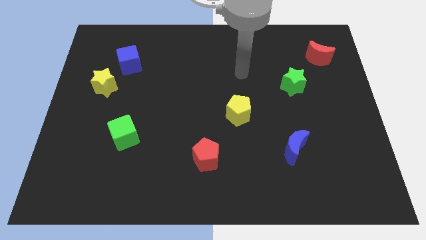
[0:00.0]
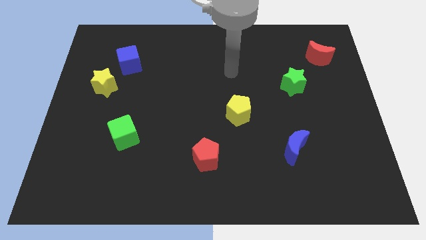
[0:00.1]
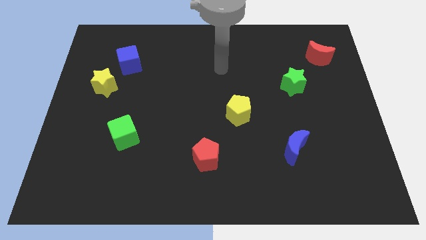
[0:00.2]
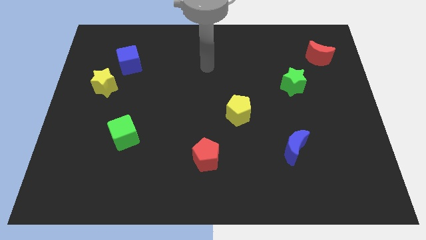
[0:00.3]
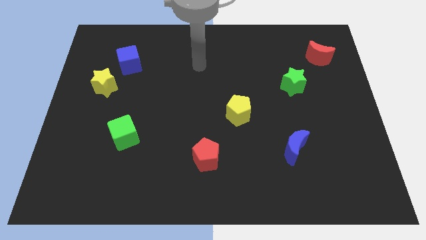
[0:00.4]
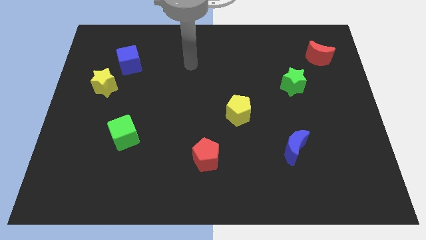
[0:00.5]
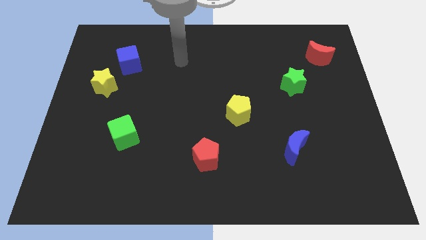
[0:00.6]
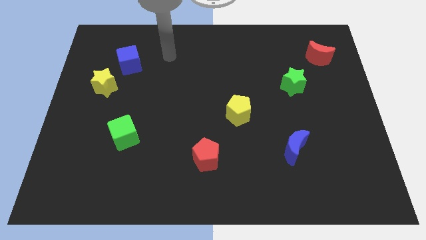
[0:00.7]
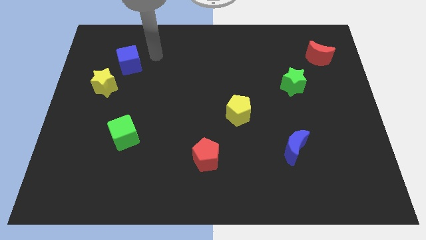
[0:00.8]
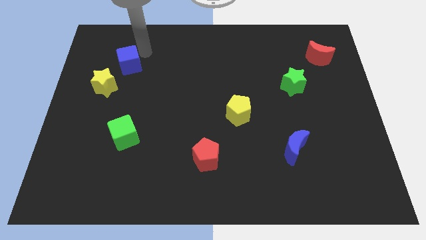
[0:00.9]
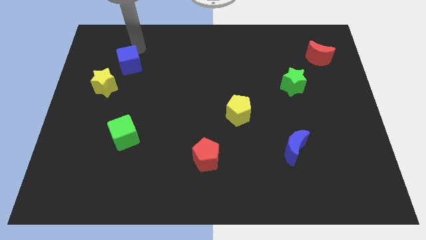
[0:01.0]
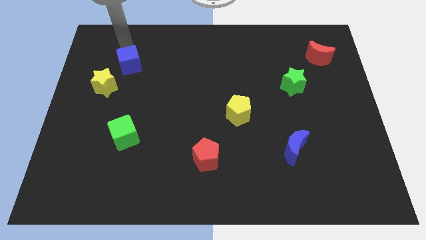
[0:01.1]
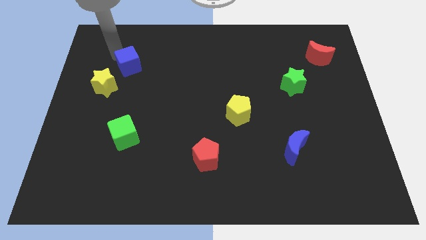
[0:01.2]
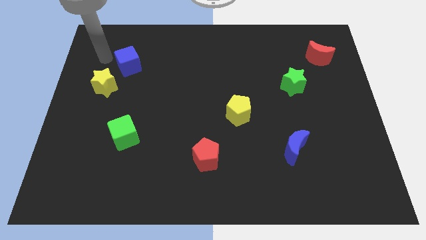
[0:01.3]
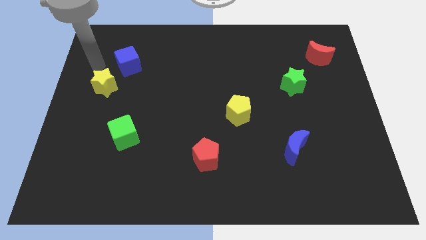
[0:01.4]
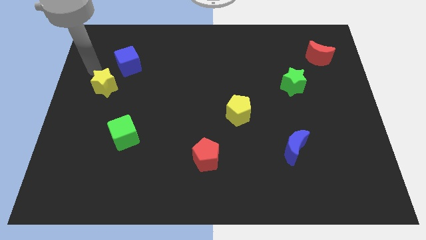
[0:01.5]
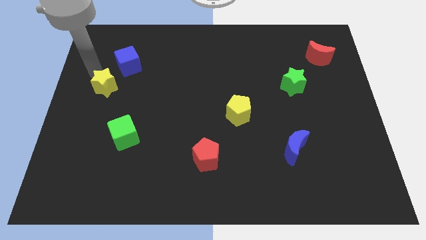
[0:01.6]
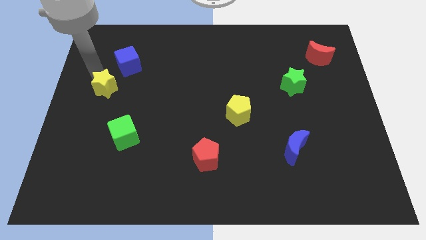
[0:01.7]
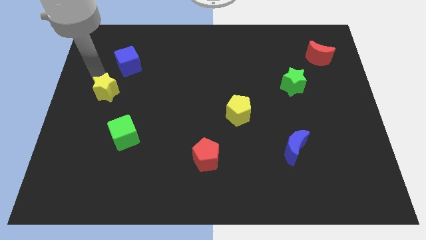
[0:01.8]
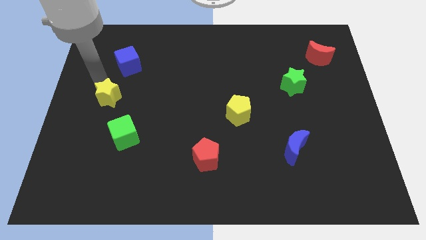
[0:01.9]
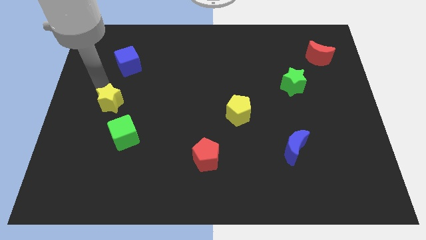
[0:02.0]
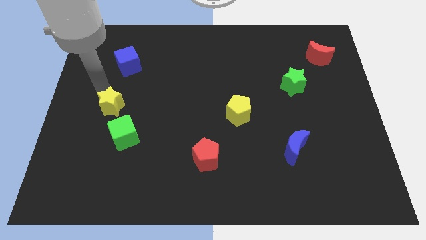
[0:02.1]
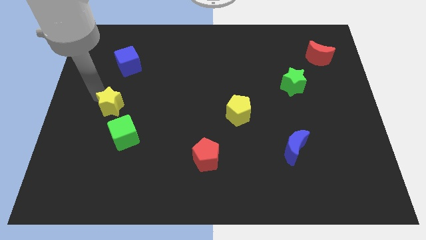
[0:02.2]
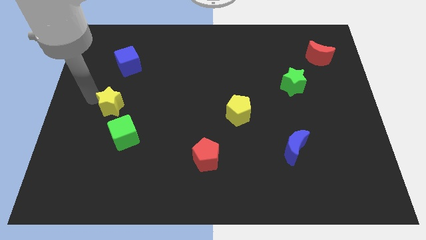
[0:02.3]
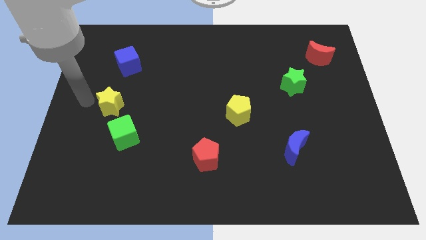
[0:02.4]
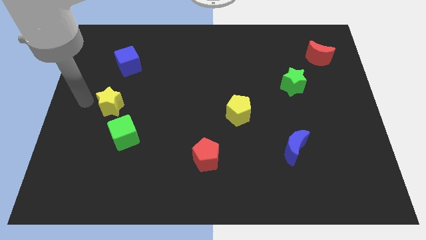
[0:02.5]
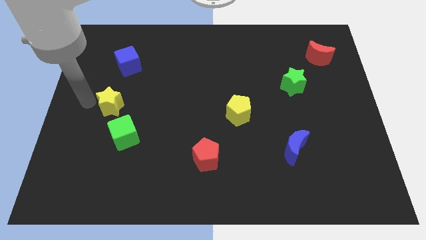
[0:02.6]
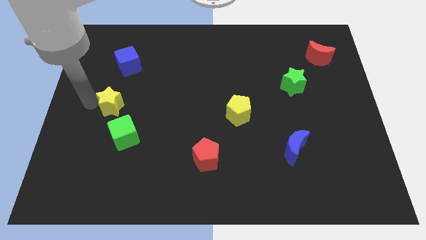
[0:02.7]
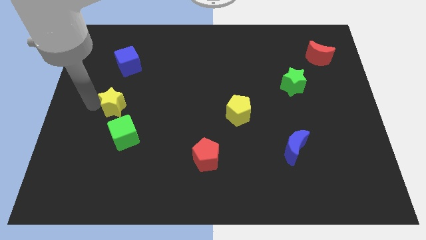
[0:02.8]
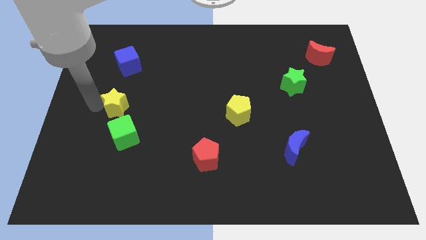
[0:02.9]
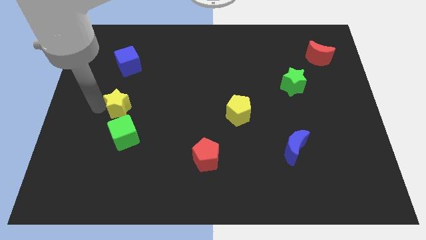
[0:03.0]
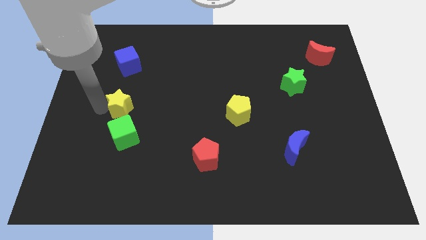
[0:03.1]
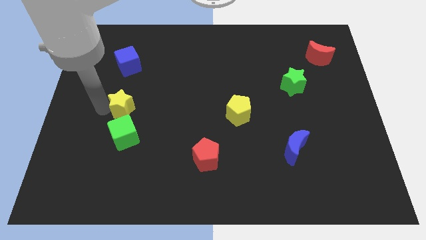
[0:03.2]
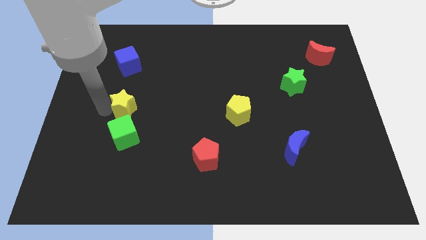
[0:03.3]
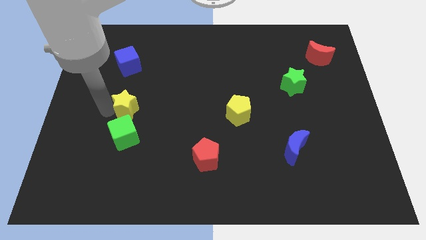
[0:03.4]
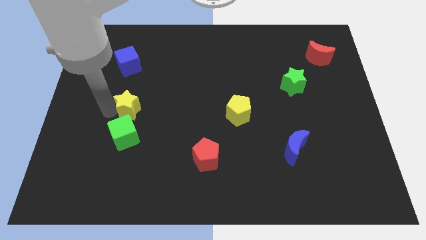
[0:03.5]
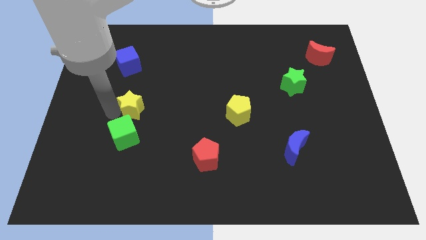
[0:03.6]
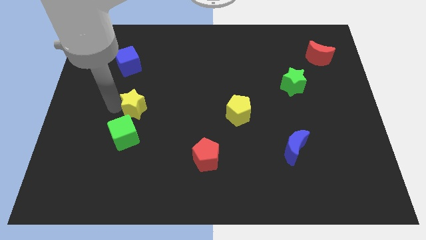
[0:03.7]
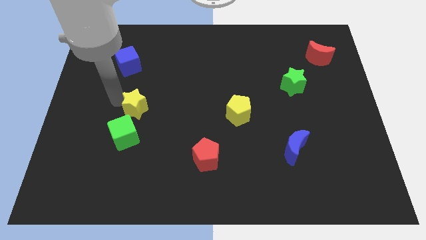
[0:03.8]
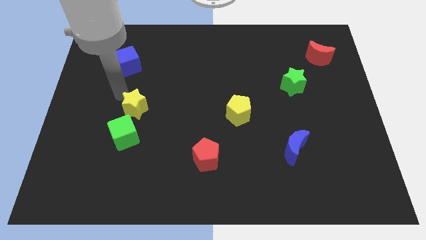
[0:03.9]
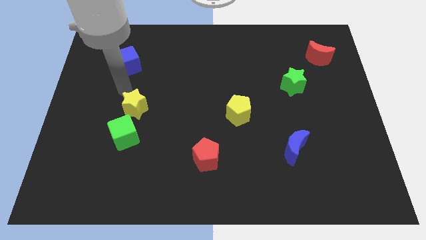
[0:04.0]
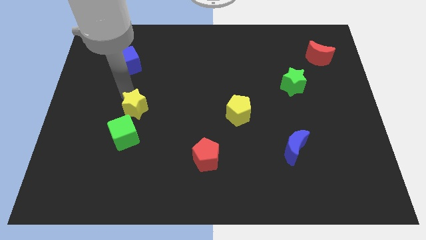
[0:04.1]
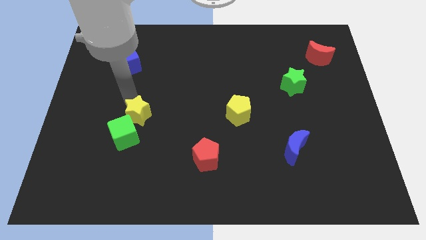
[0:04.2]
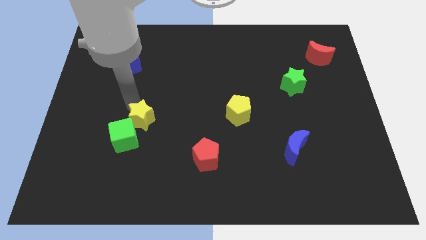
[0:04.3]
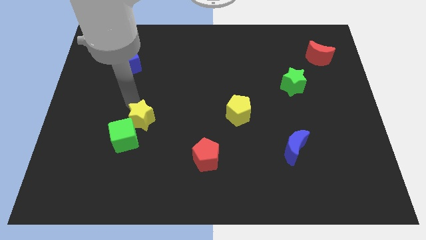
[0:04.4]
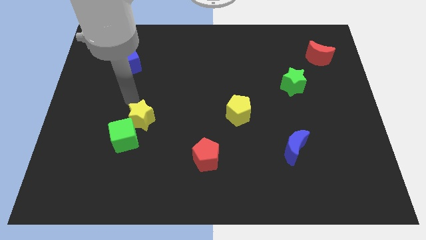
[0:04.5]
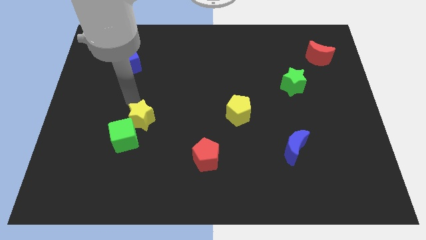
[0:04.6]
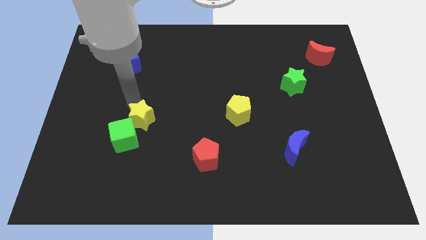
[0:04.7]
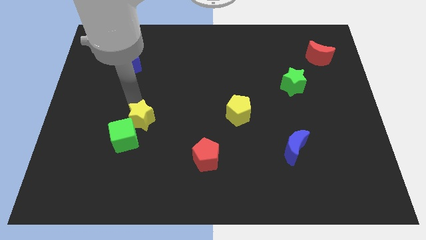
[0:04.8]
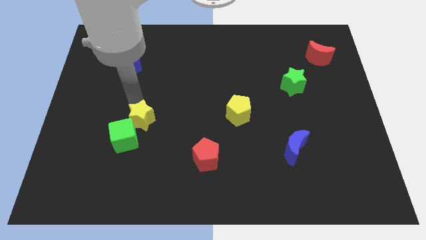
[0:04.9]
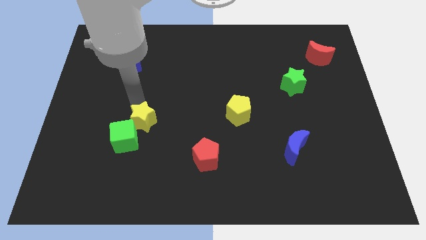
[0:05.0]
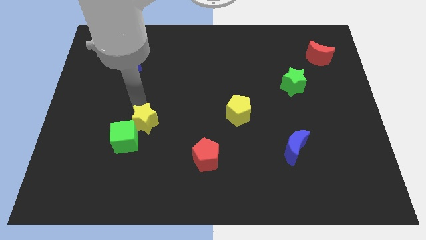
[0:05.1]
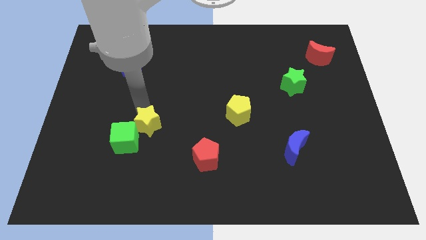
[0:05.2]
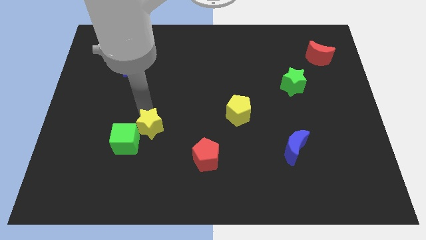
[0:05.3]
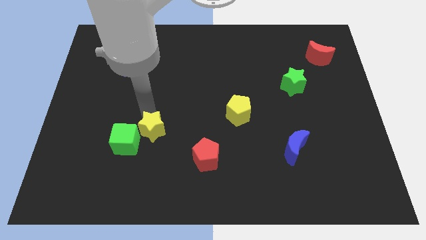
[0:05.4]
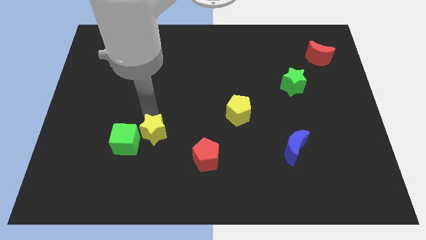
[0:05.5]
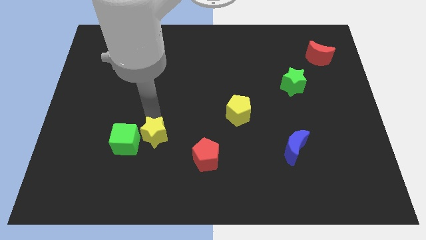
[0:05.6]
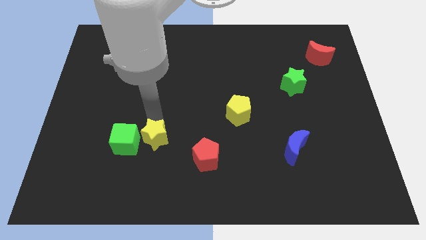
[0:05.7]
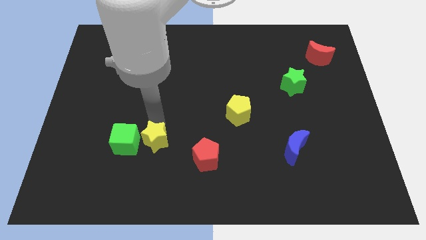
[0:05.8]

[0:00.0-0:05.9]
push the yellow star to the bottom right of the green cube
